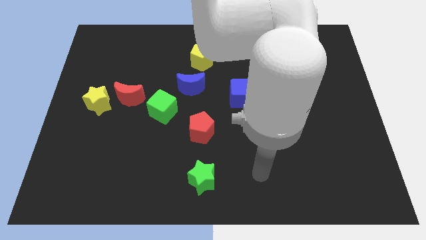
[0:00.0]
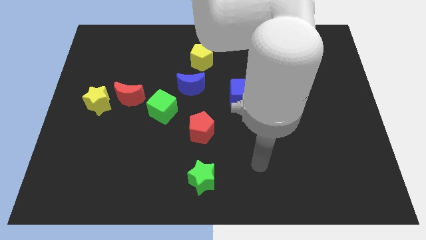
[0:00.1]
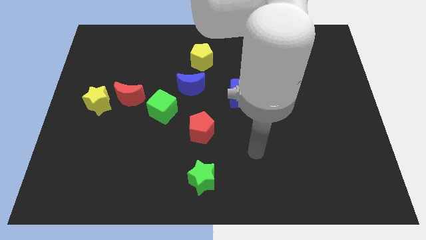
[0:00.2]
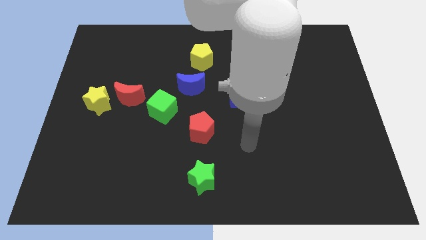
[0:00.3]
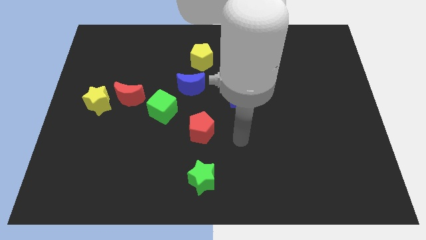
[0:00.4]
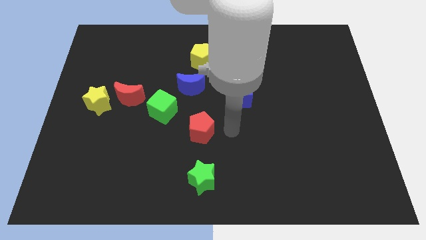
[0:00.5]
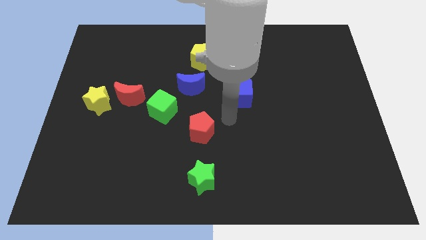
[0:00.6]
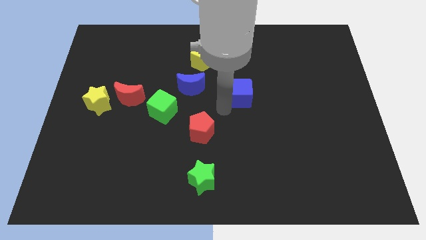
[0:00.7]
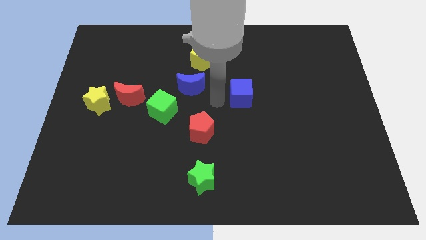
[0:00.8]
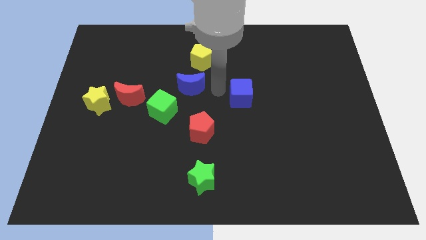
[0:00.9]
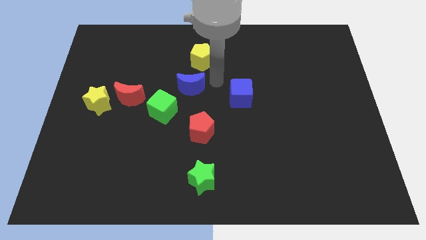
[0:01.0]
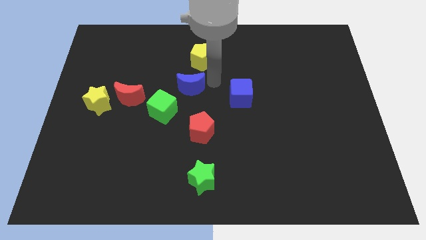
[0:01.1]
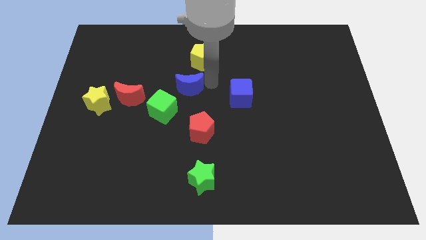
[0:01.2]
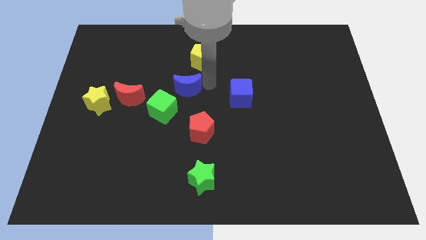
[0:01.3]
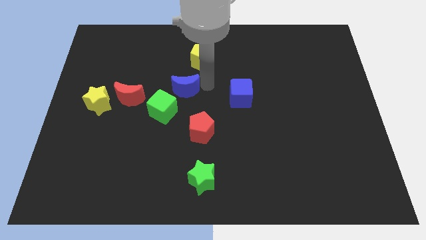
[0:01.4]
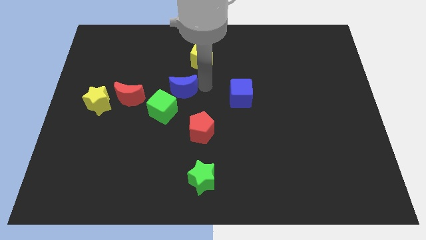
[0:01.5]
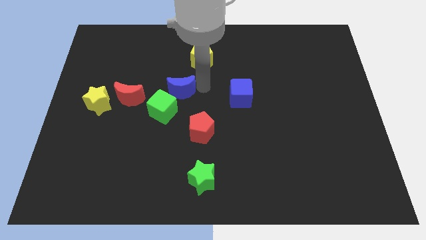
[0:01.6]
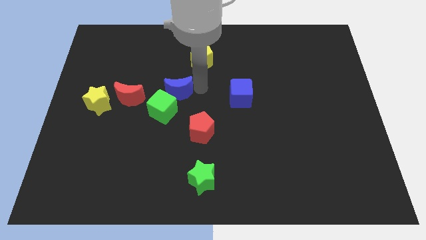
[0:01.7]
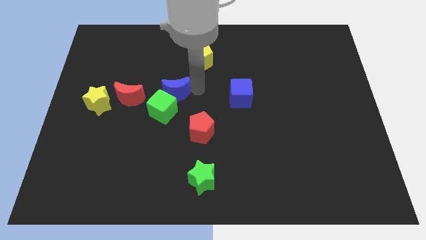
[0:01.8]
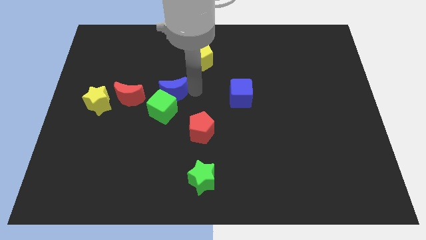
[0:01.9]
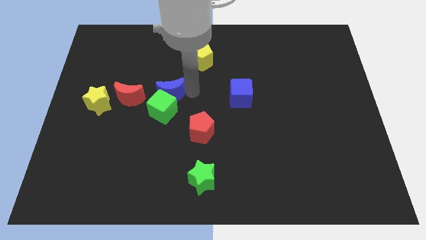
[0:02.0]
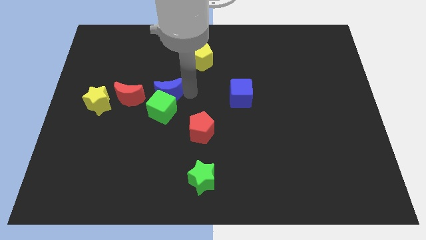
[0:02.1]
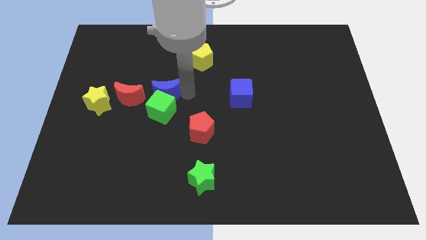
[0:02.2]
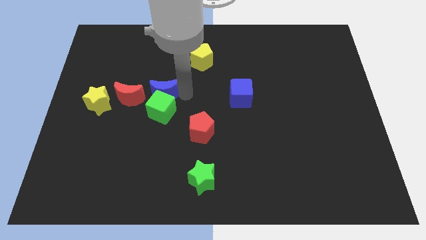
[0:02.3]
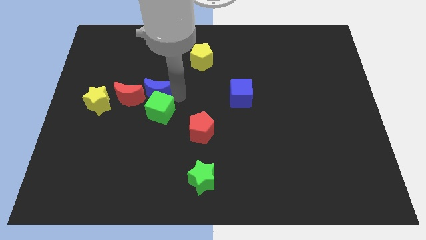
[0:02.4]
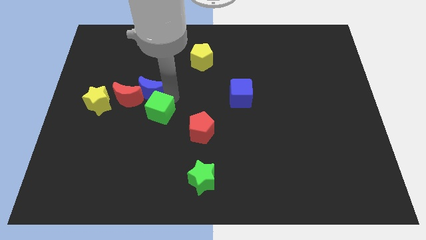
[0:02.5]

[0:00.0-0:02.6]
slightly push the blue moon downwards and to the left

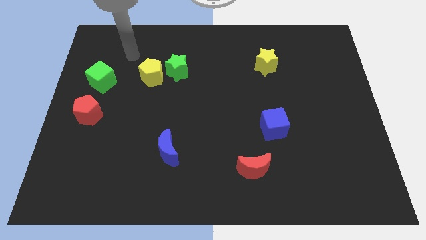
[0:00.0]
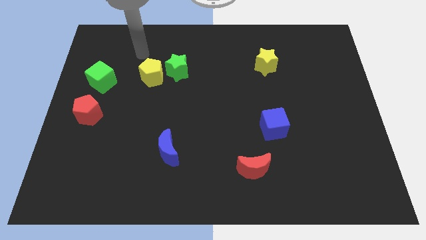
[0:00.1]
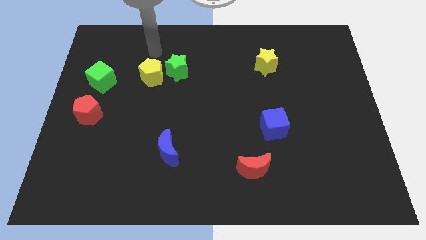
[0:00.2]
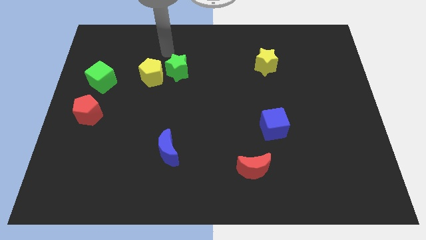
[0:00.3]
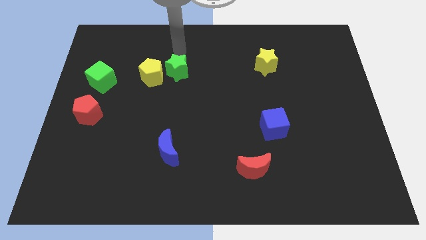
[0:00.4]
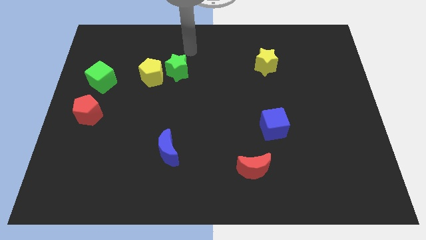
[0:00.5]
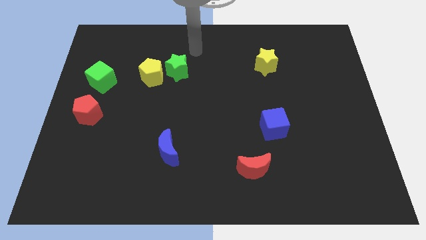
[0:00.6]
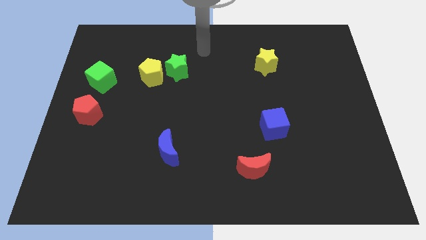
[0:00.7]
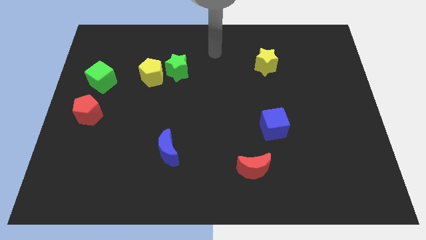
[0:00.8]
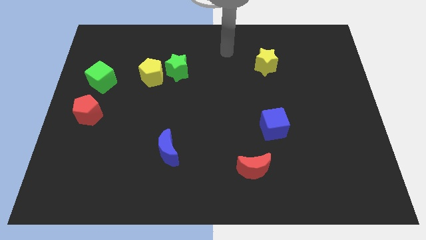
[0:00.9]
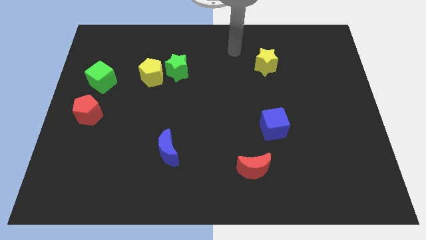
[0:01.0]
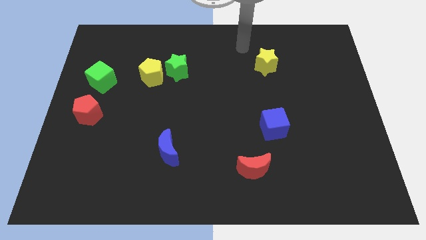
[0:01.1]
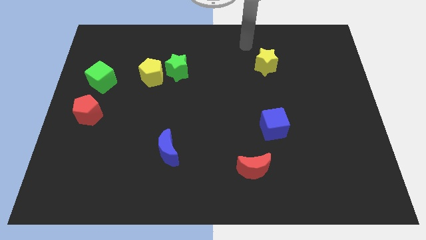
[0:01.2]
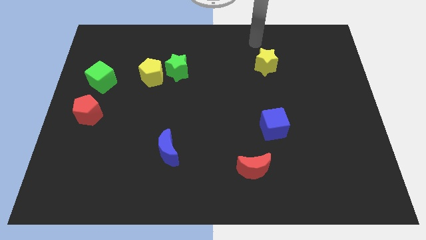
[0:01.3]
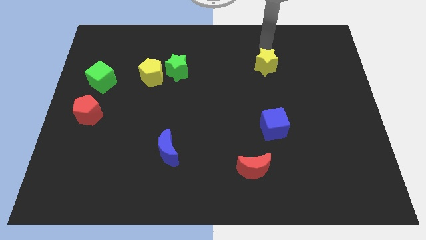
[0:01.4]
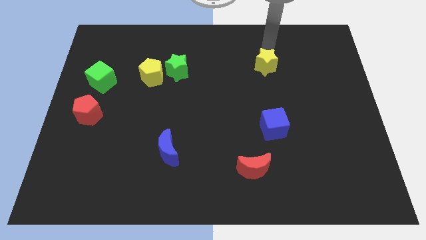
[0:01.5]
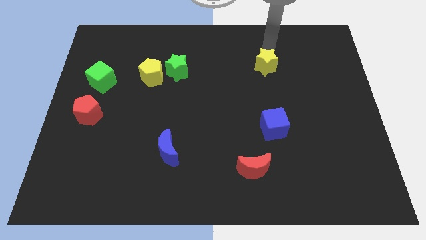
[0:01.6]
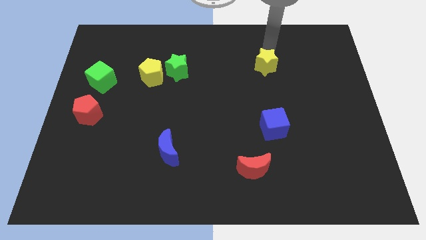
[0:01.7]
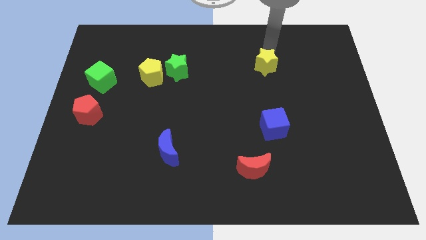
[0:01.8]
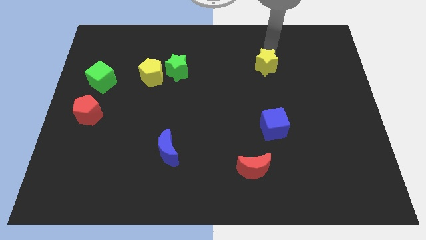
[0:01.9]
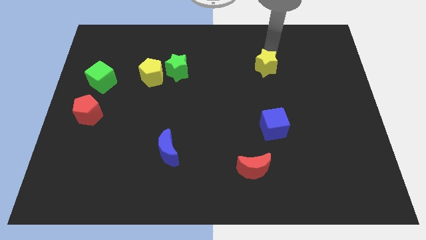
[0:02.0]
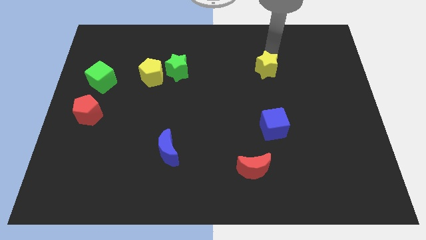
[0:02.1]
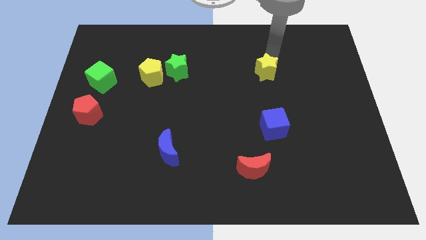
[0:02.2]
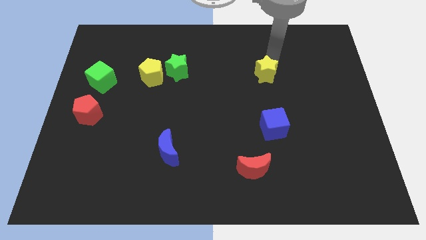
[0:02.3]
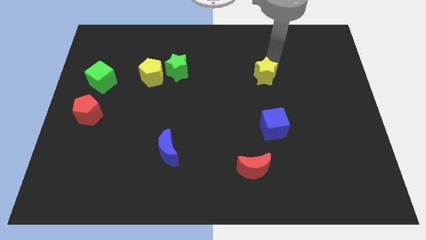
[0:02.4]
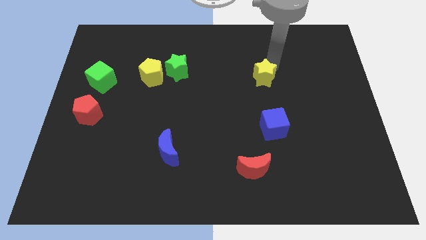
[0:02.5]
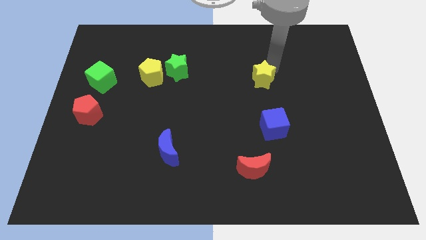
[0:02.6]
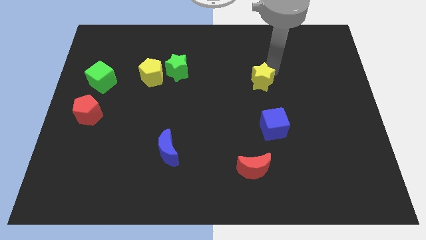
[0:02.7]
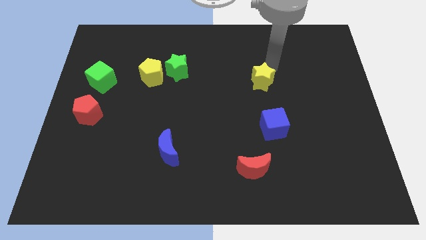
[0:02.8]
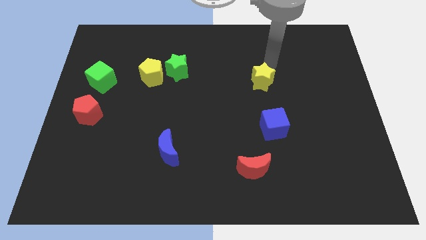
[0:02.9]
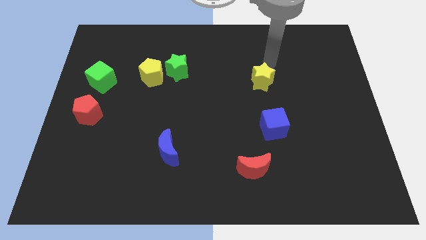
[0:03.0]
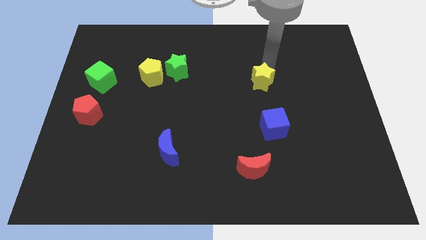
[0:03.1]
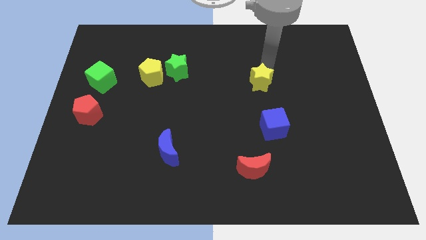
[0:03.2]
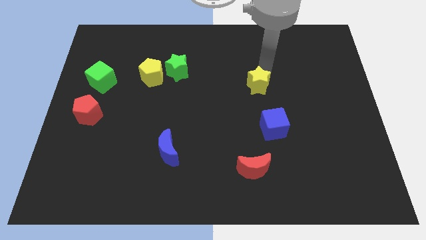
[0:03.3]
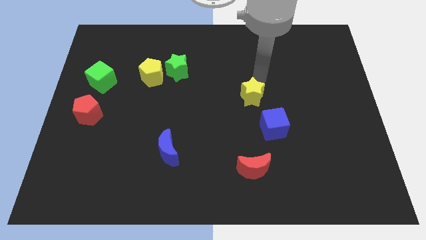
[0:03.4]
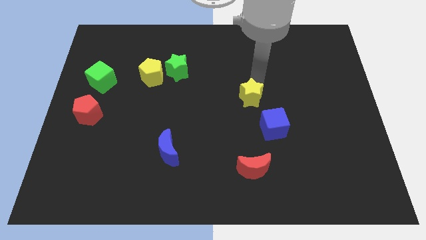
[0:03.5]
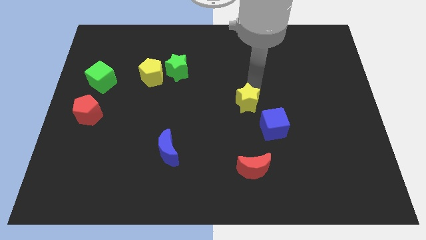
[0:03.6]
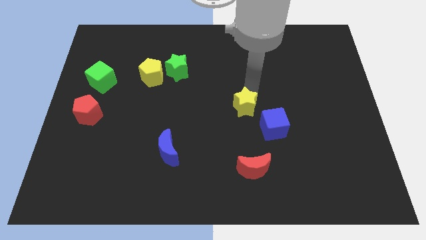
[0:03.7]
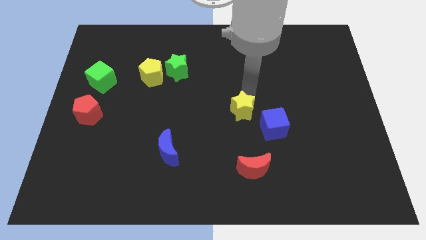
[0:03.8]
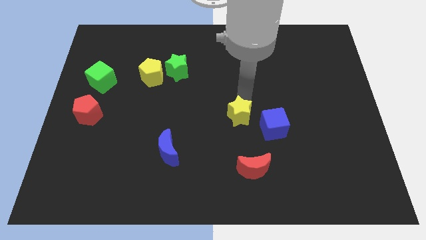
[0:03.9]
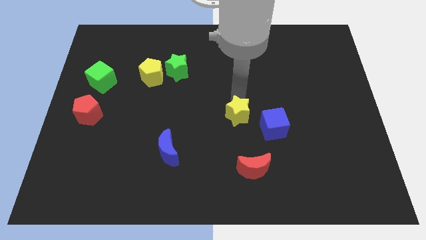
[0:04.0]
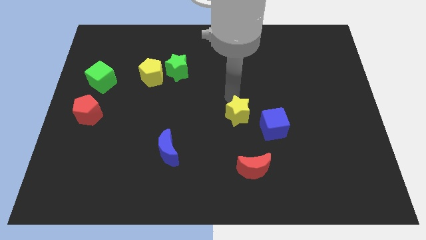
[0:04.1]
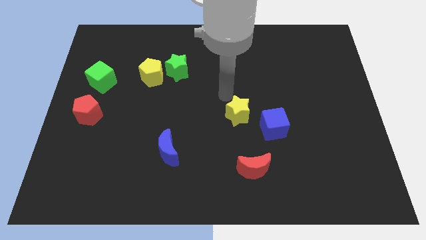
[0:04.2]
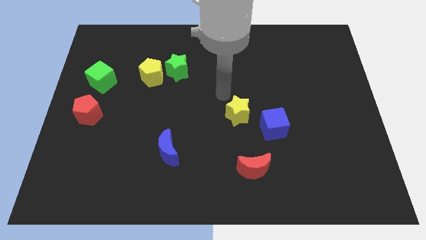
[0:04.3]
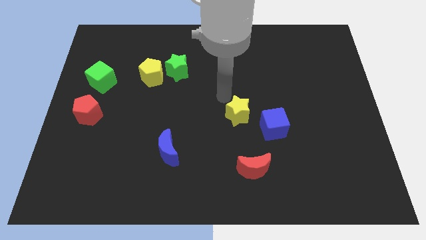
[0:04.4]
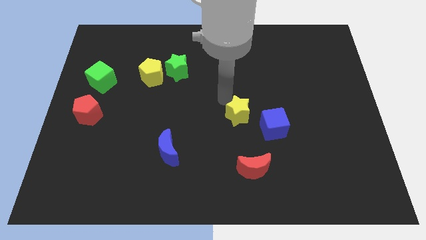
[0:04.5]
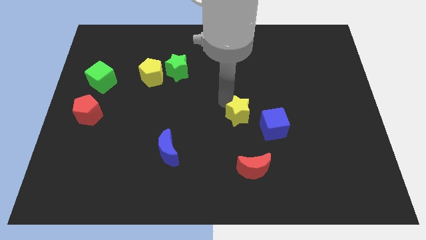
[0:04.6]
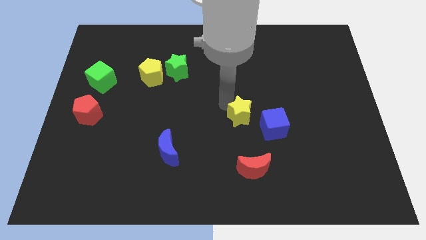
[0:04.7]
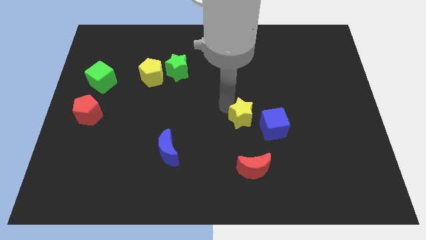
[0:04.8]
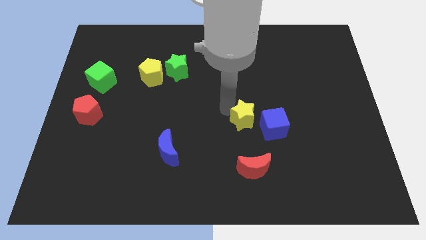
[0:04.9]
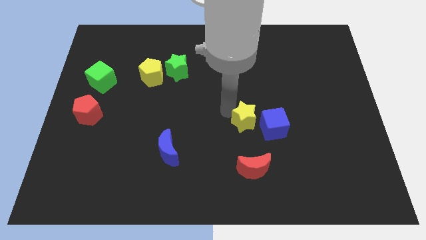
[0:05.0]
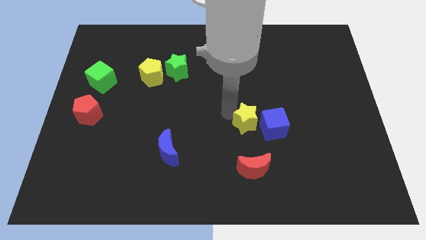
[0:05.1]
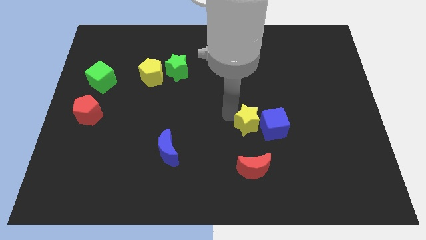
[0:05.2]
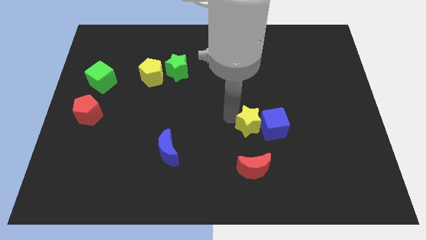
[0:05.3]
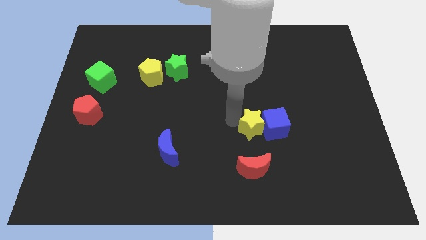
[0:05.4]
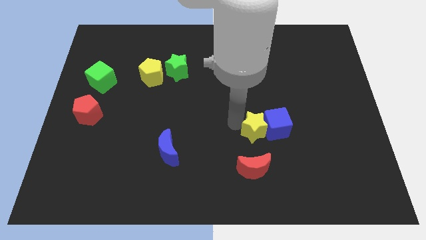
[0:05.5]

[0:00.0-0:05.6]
push the yellow star down

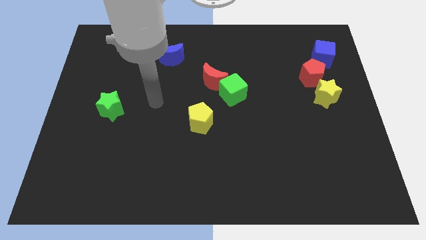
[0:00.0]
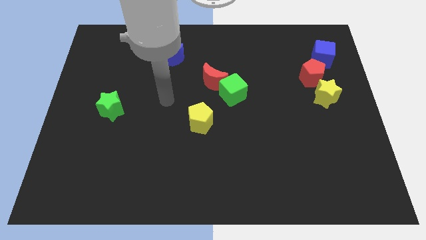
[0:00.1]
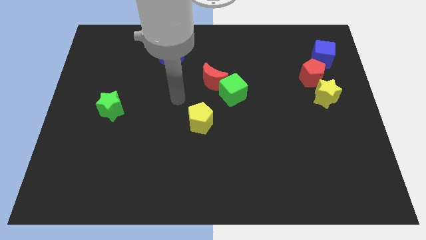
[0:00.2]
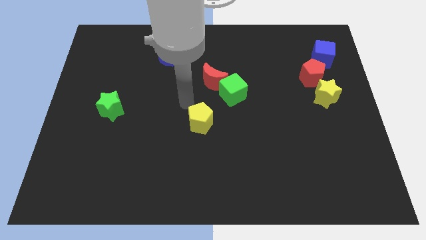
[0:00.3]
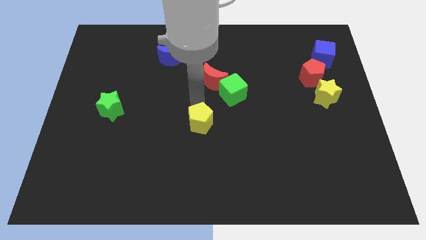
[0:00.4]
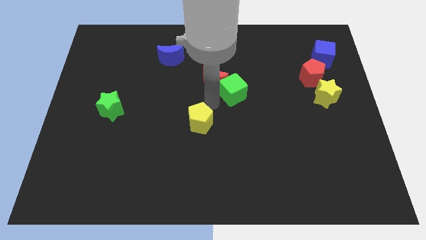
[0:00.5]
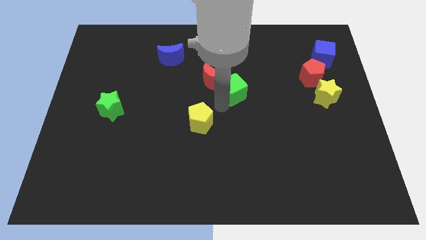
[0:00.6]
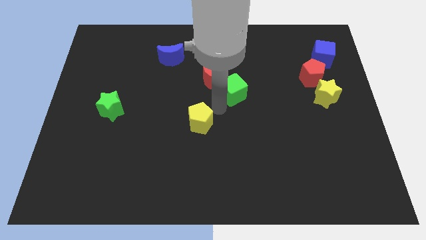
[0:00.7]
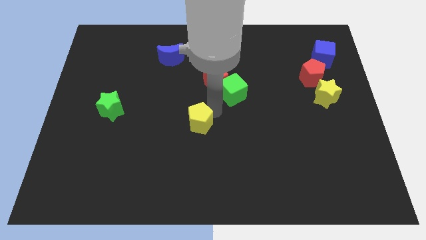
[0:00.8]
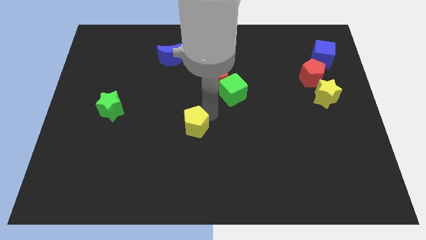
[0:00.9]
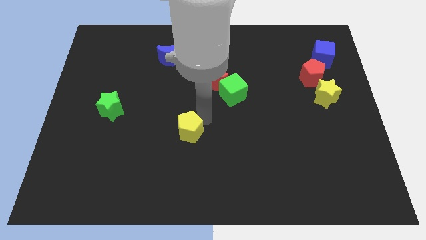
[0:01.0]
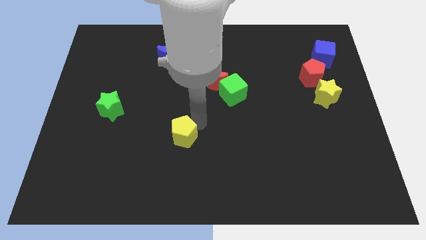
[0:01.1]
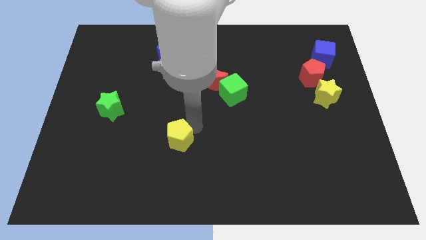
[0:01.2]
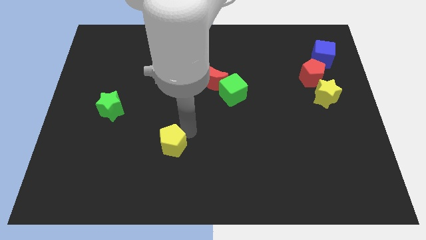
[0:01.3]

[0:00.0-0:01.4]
push the yellow pentagon downwards and to the left slightly
